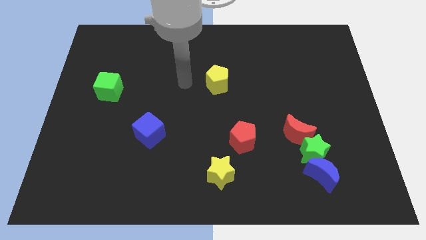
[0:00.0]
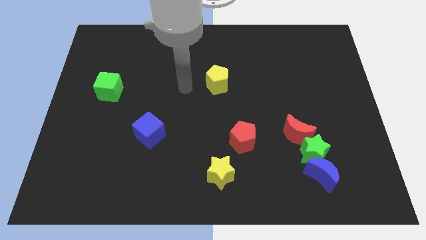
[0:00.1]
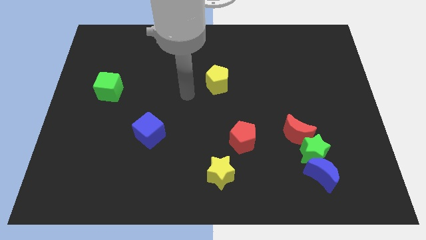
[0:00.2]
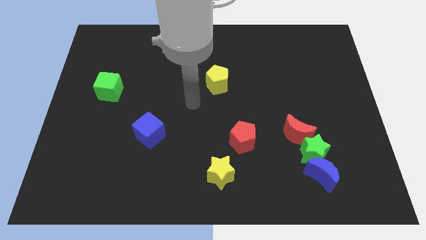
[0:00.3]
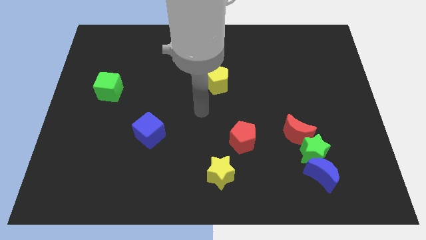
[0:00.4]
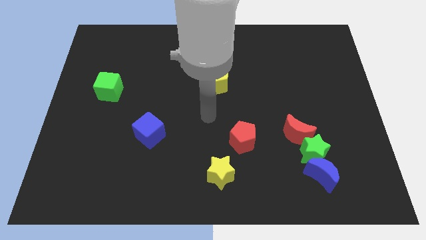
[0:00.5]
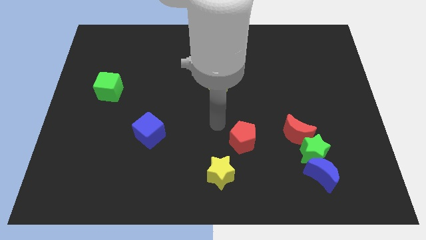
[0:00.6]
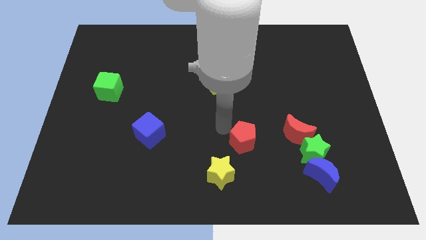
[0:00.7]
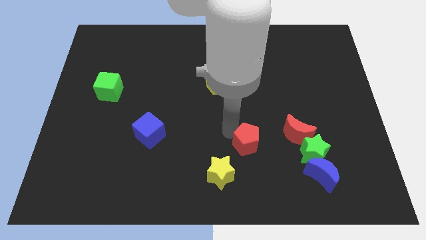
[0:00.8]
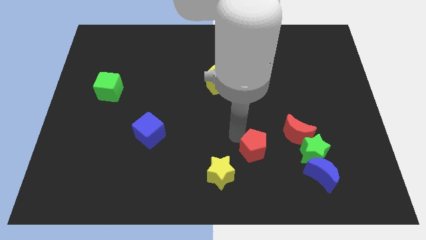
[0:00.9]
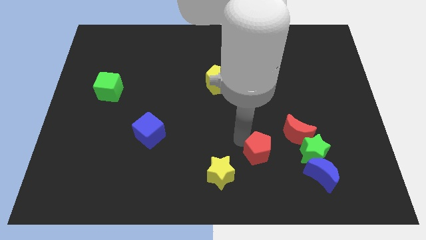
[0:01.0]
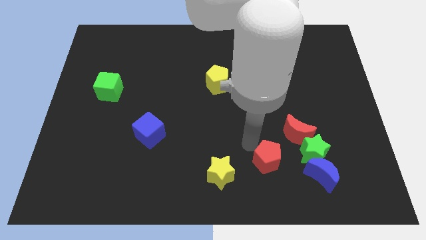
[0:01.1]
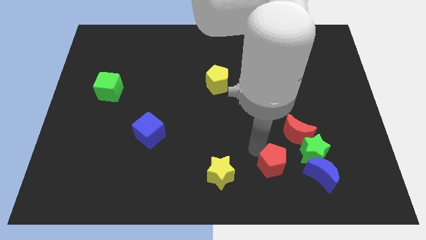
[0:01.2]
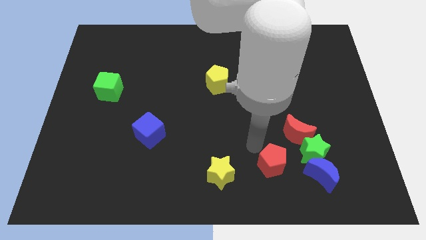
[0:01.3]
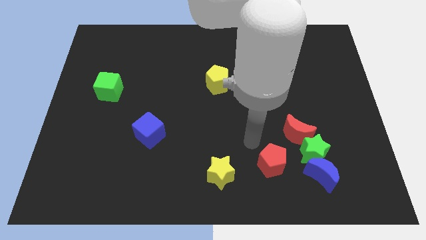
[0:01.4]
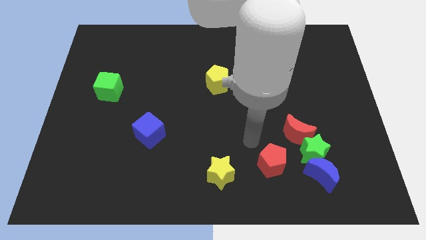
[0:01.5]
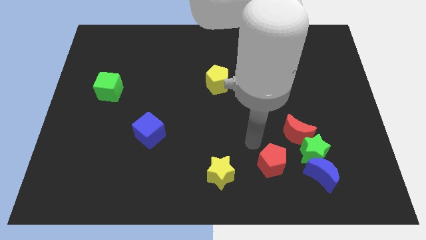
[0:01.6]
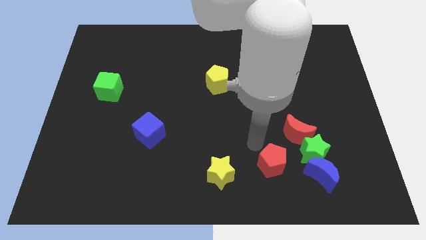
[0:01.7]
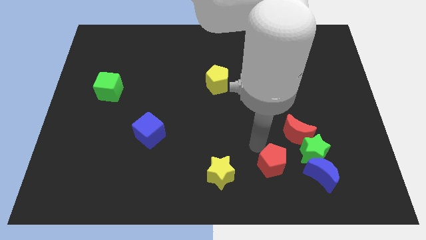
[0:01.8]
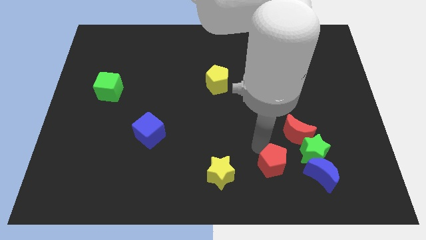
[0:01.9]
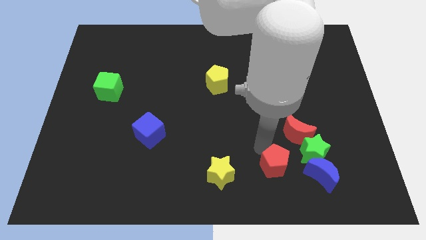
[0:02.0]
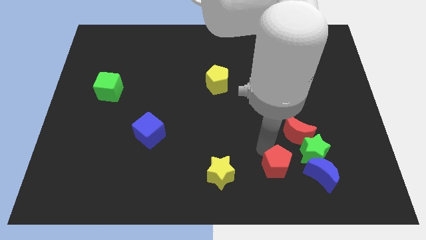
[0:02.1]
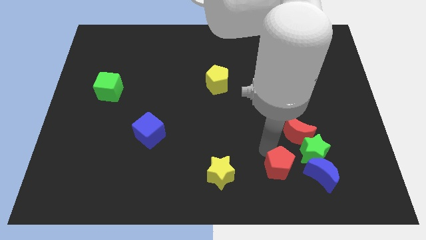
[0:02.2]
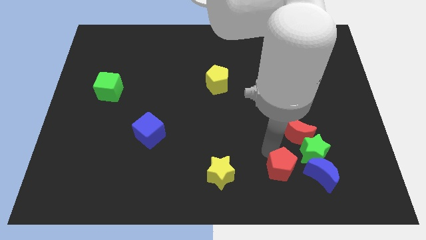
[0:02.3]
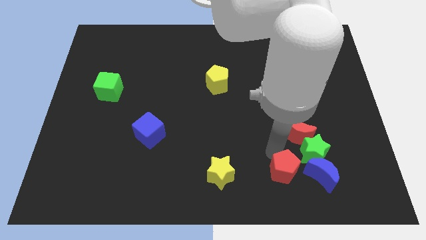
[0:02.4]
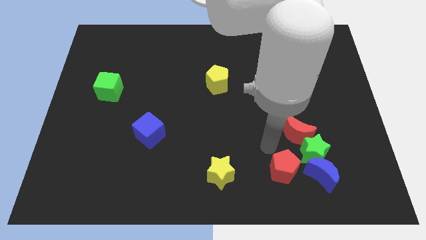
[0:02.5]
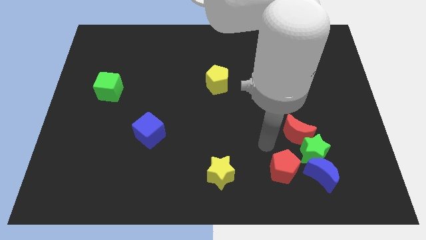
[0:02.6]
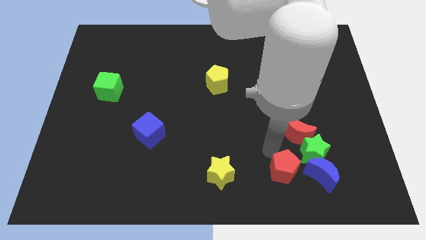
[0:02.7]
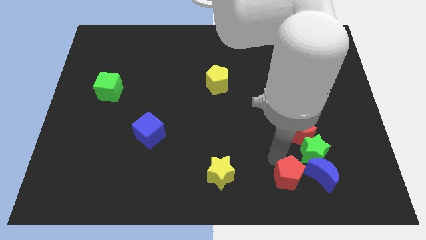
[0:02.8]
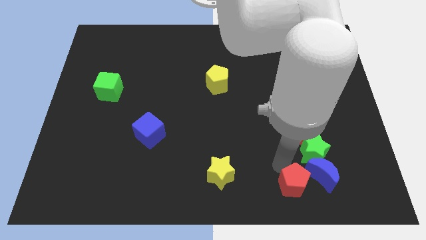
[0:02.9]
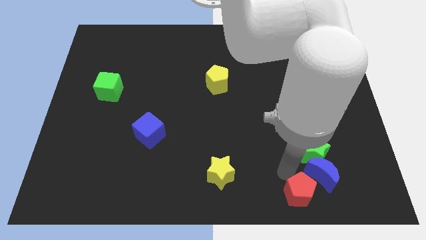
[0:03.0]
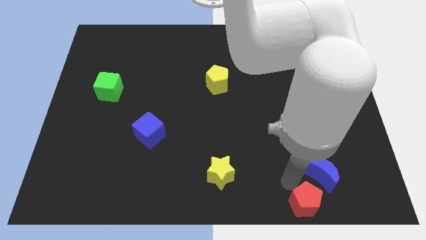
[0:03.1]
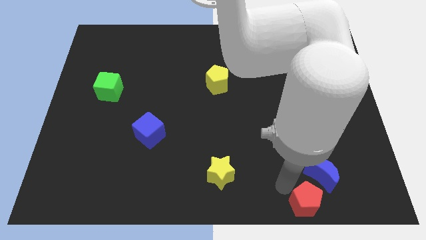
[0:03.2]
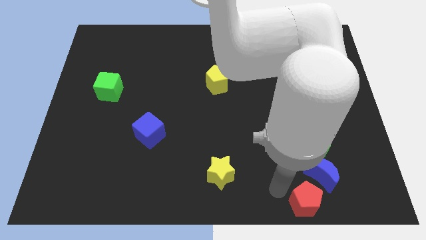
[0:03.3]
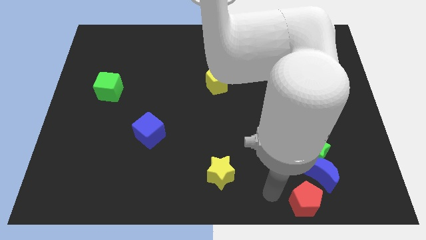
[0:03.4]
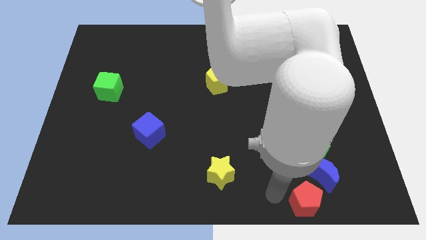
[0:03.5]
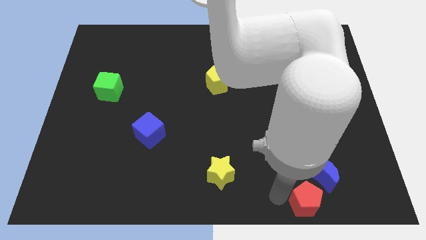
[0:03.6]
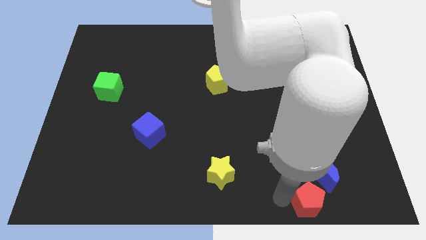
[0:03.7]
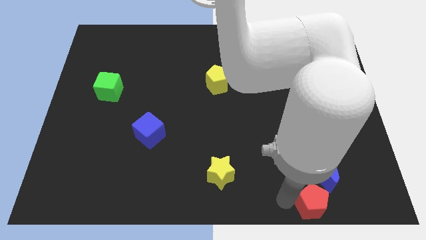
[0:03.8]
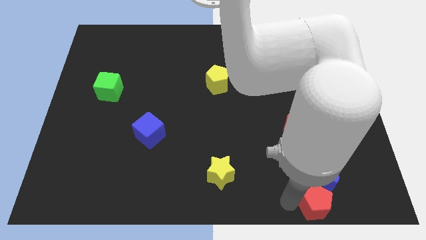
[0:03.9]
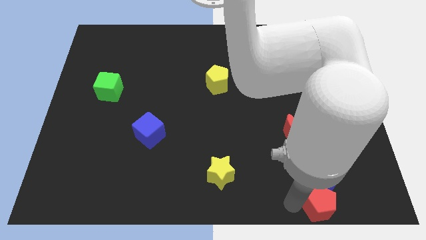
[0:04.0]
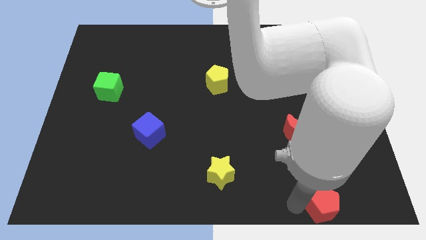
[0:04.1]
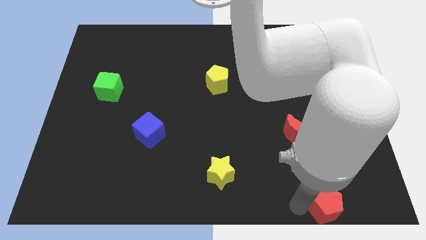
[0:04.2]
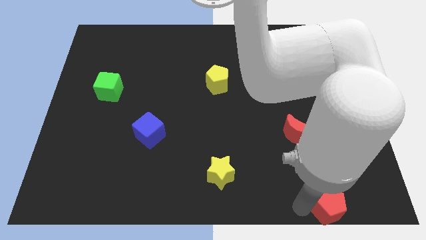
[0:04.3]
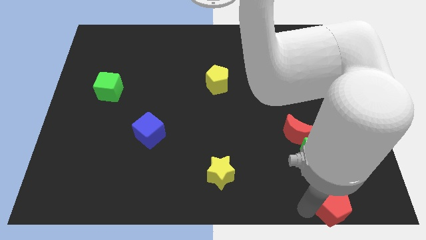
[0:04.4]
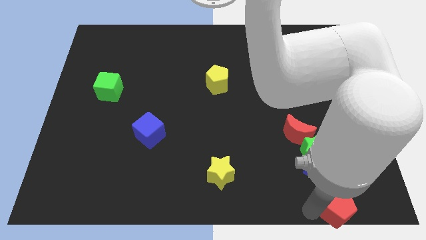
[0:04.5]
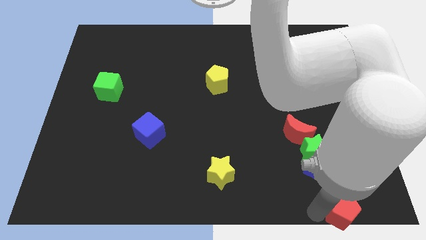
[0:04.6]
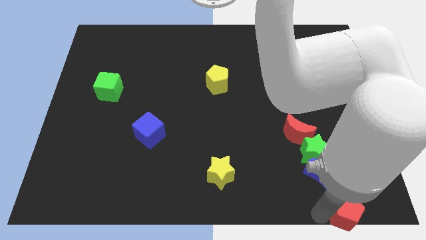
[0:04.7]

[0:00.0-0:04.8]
put the red pentagon to the bottom right

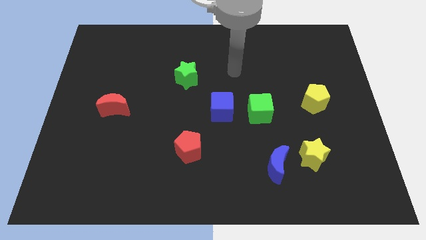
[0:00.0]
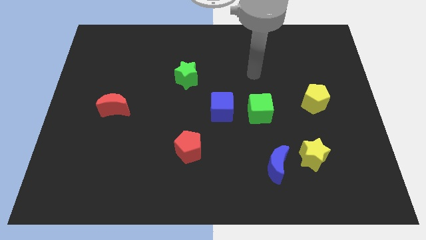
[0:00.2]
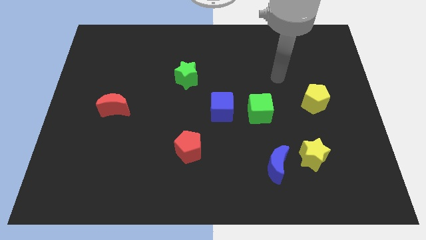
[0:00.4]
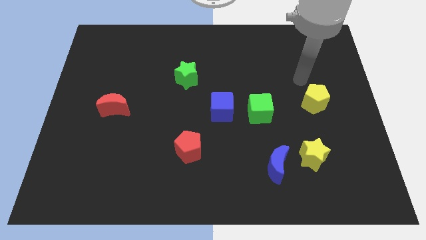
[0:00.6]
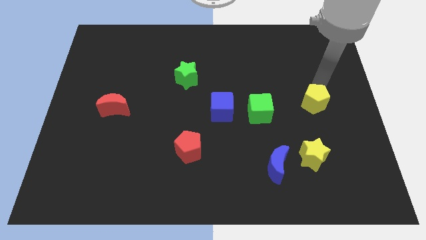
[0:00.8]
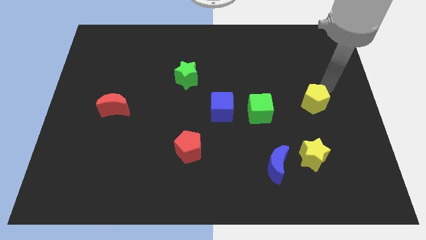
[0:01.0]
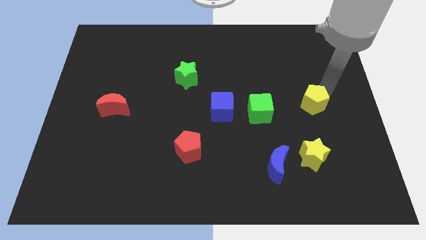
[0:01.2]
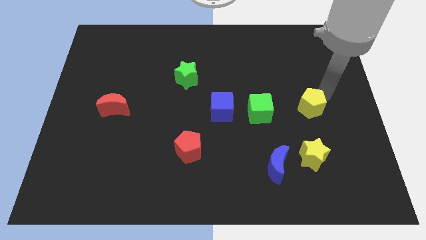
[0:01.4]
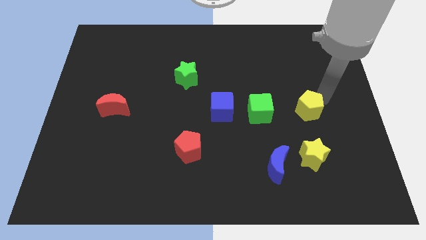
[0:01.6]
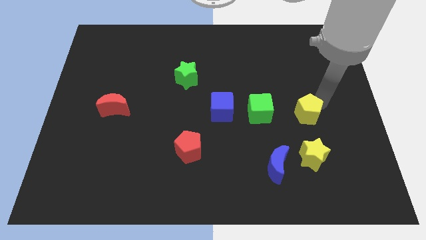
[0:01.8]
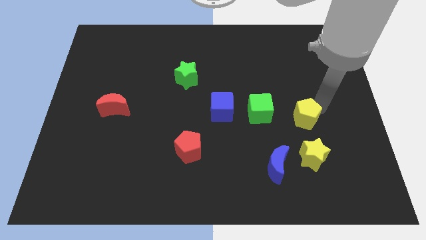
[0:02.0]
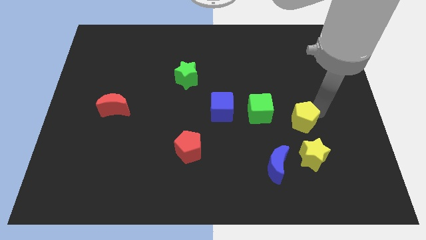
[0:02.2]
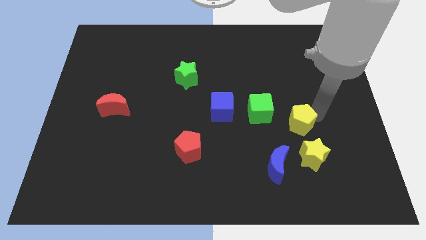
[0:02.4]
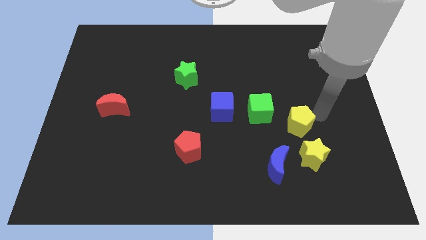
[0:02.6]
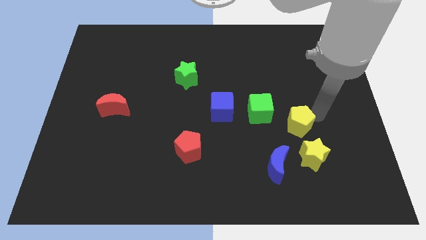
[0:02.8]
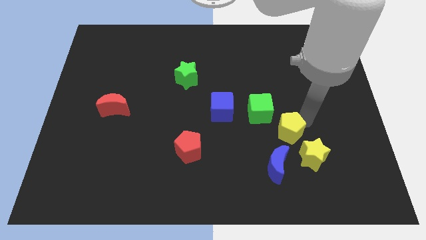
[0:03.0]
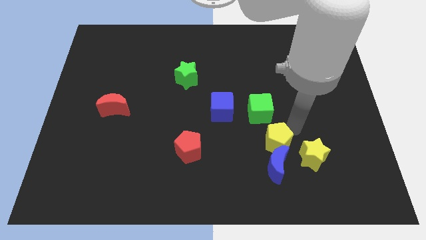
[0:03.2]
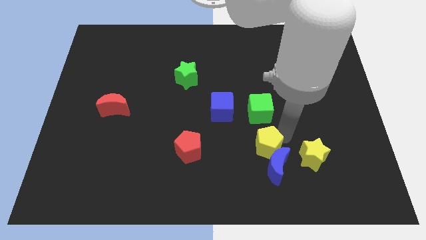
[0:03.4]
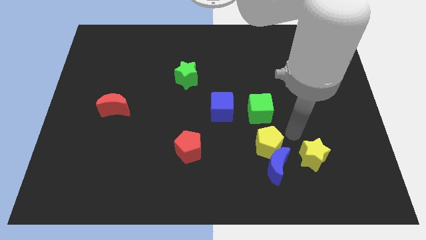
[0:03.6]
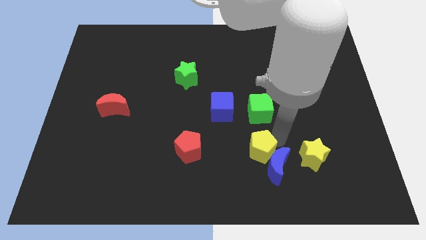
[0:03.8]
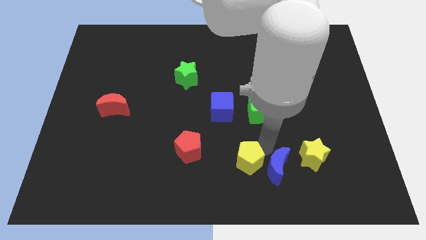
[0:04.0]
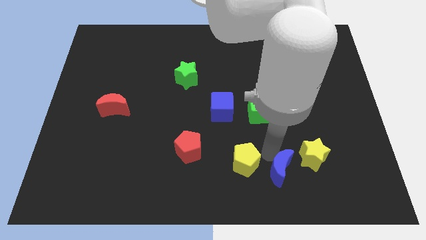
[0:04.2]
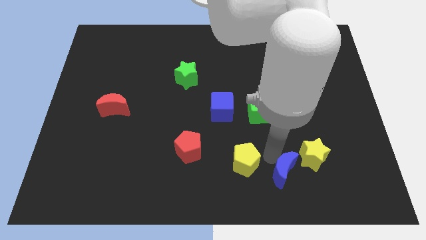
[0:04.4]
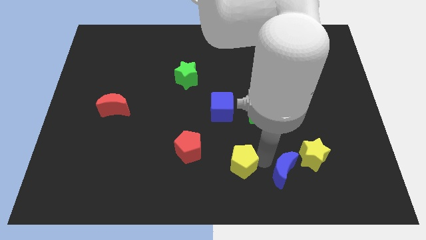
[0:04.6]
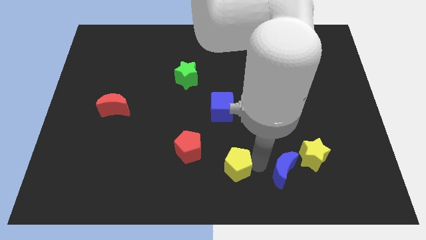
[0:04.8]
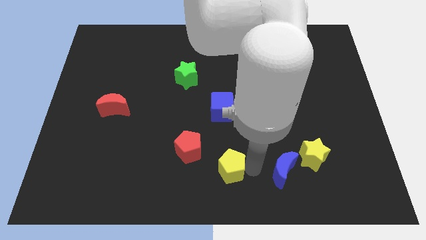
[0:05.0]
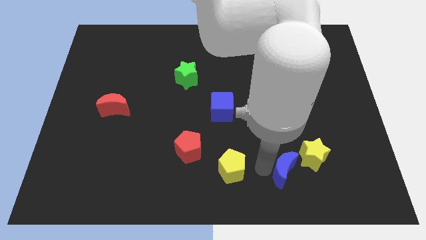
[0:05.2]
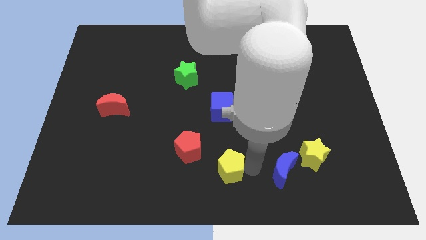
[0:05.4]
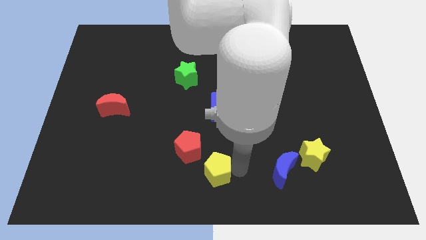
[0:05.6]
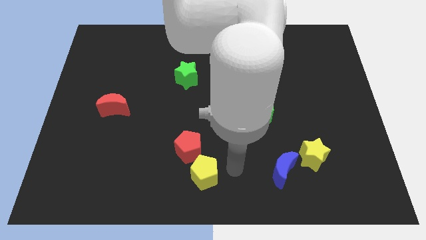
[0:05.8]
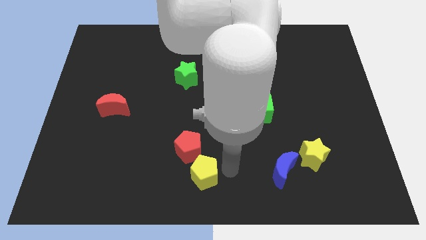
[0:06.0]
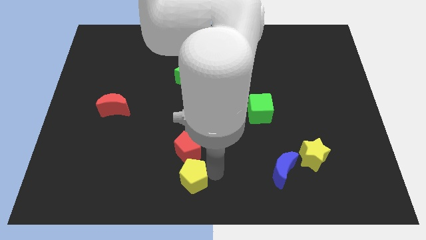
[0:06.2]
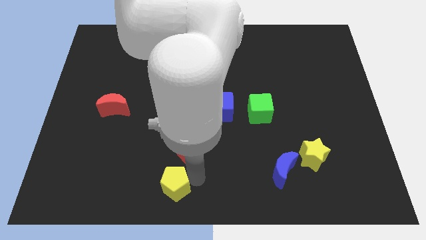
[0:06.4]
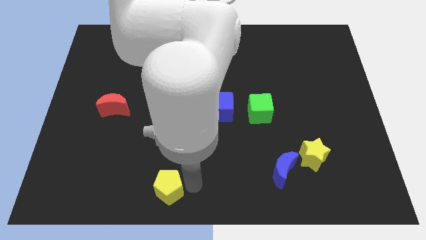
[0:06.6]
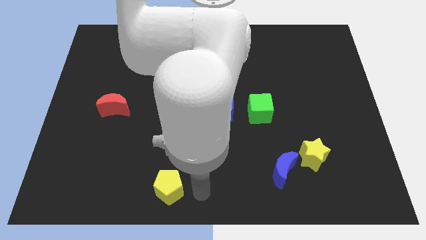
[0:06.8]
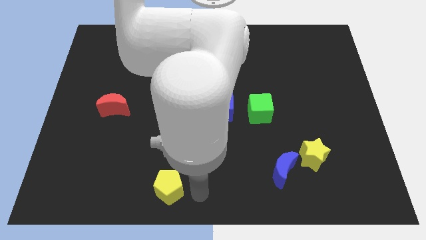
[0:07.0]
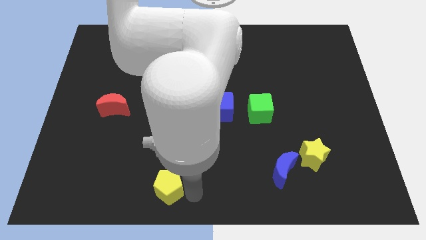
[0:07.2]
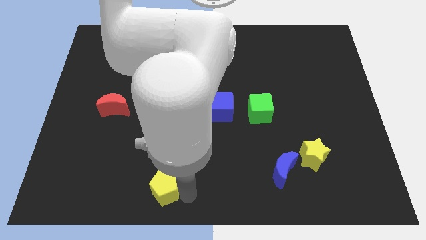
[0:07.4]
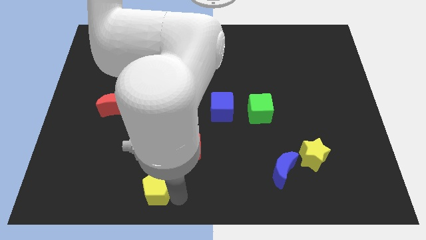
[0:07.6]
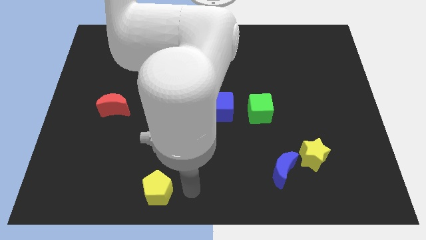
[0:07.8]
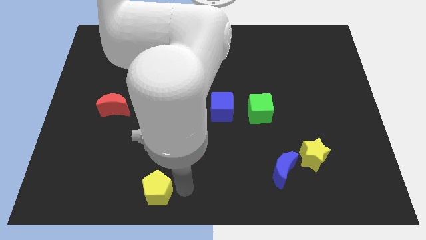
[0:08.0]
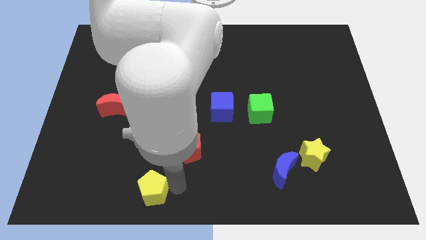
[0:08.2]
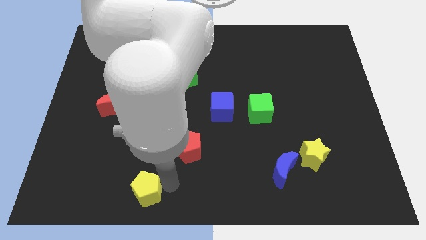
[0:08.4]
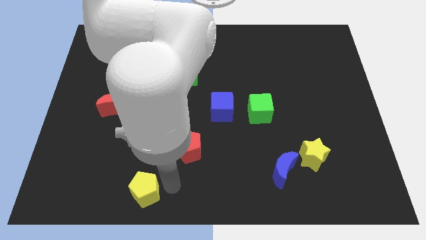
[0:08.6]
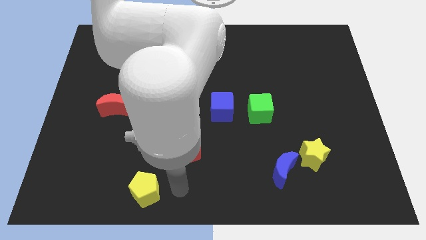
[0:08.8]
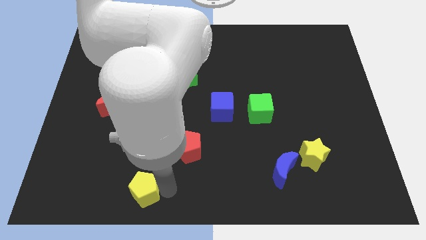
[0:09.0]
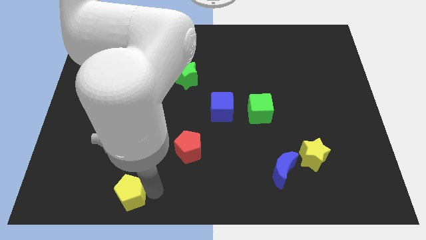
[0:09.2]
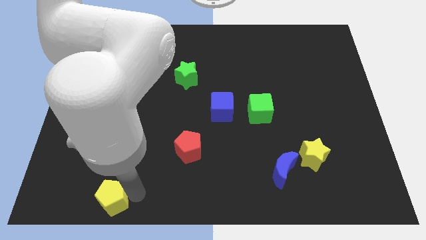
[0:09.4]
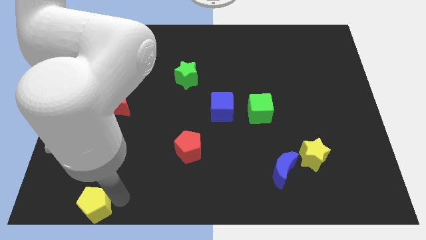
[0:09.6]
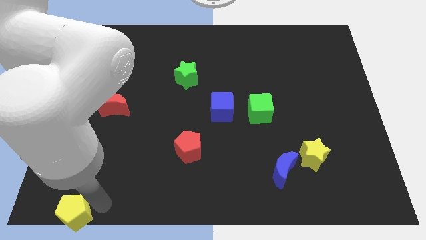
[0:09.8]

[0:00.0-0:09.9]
move the yellow pentagon to the bottom left
